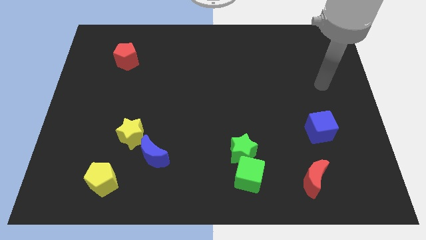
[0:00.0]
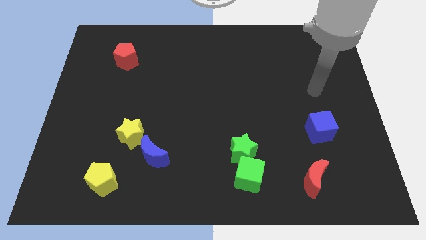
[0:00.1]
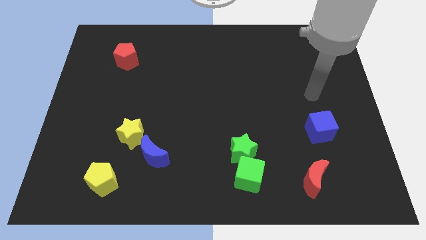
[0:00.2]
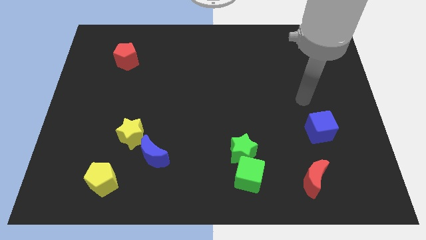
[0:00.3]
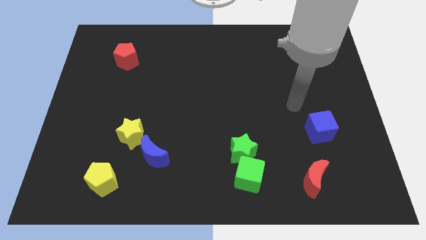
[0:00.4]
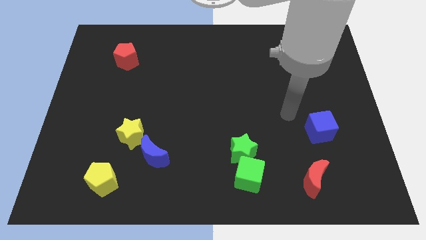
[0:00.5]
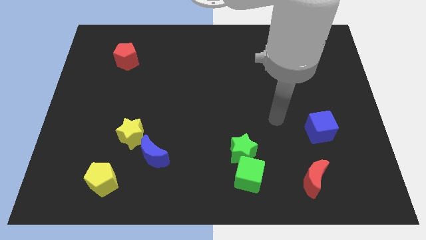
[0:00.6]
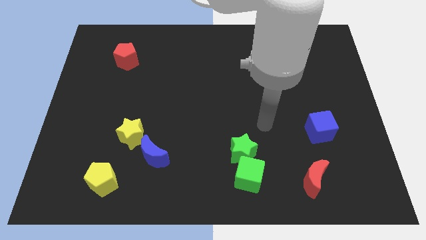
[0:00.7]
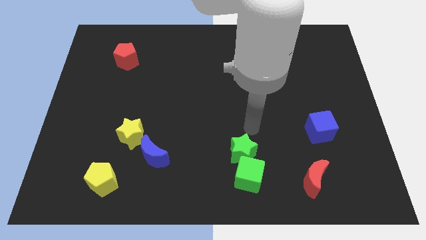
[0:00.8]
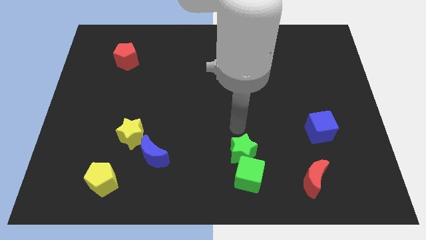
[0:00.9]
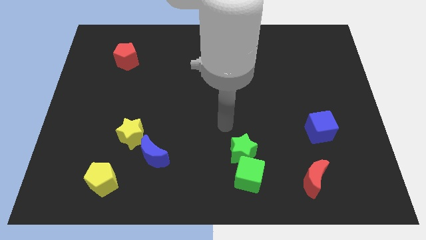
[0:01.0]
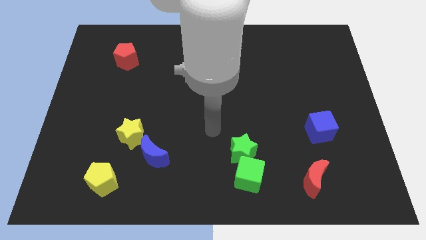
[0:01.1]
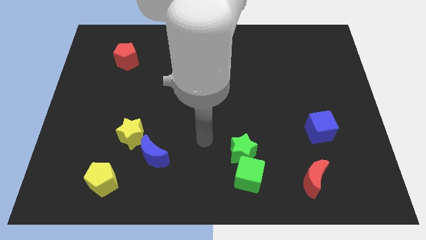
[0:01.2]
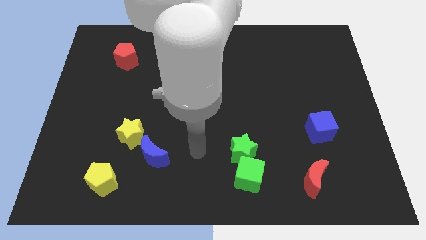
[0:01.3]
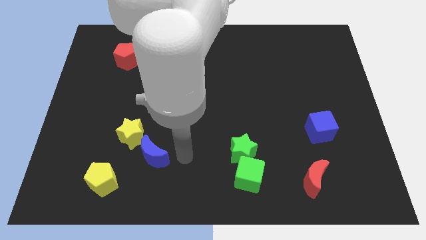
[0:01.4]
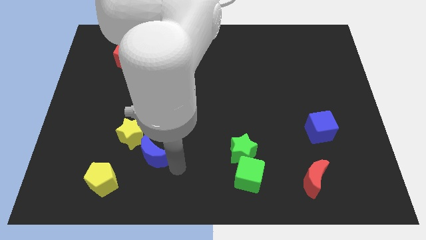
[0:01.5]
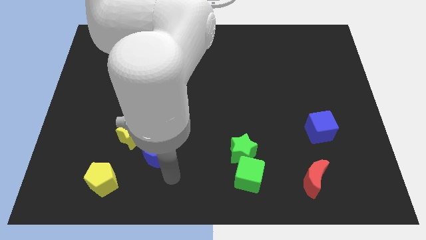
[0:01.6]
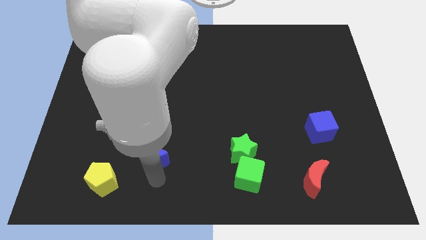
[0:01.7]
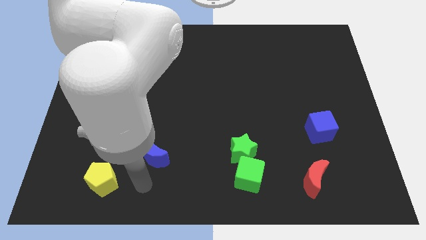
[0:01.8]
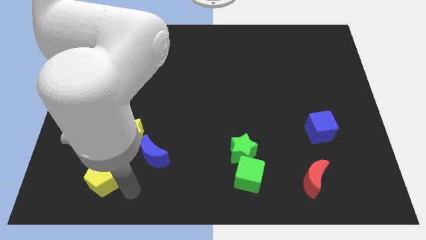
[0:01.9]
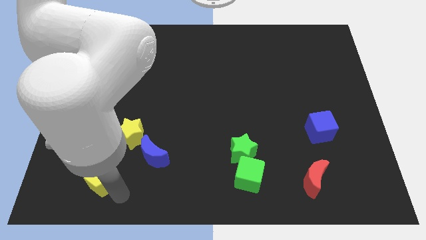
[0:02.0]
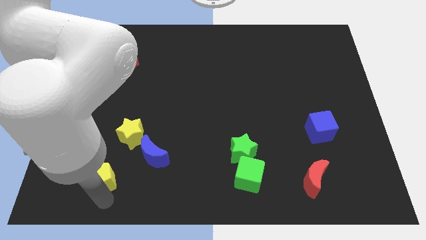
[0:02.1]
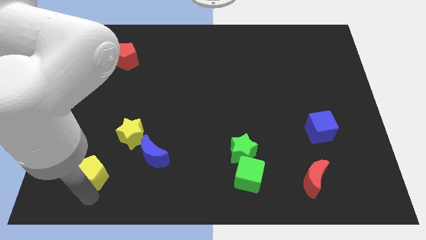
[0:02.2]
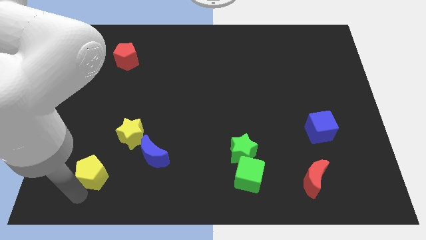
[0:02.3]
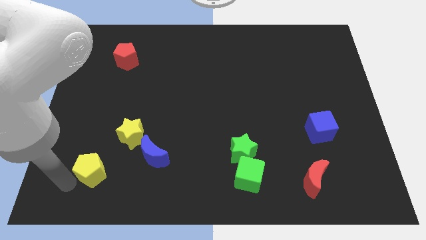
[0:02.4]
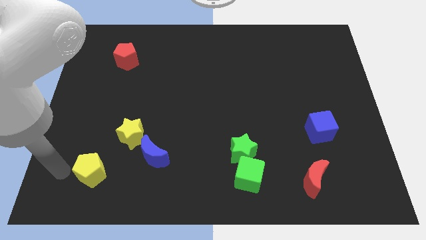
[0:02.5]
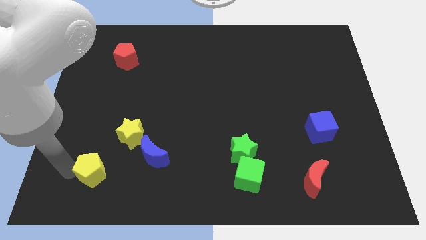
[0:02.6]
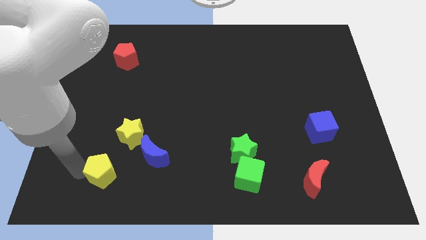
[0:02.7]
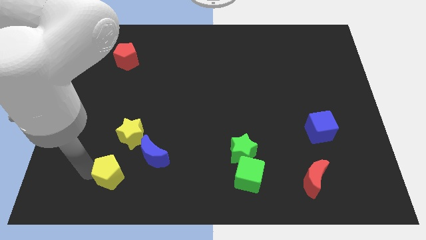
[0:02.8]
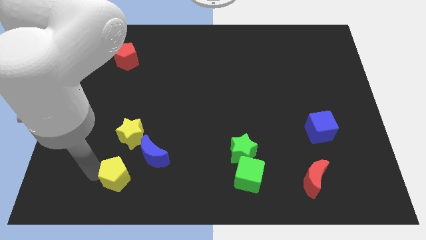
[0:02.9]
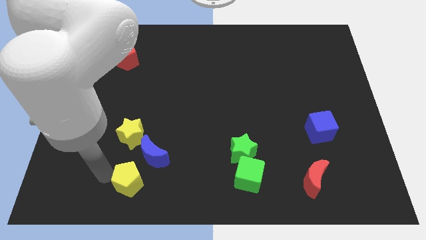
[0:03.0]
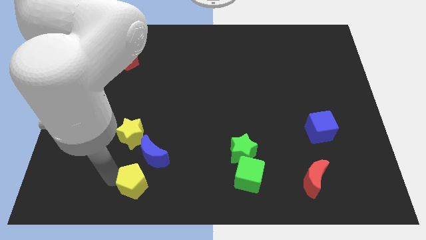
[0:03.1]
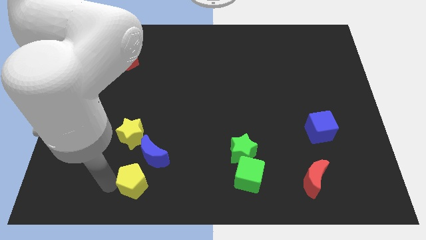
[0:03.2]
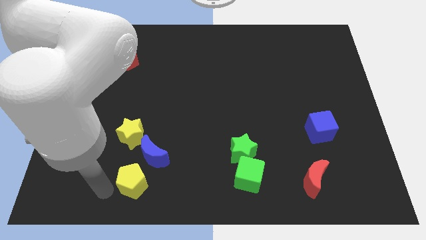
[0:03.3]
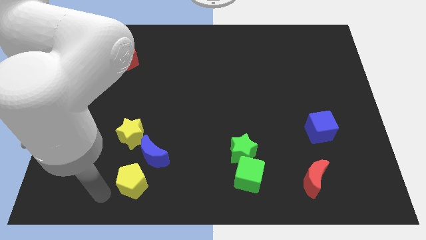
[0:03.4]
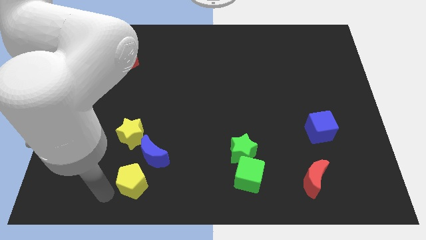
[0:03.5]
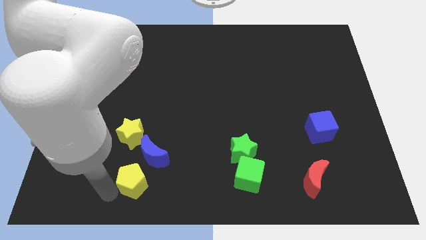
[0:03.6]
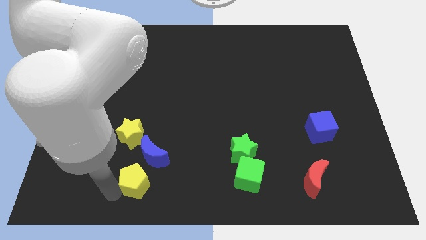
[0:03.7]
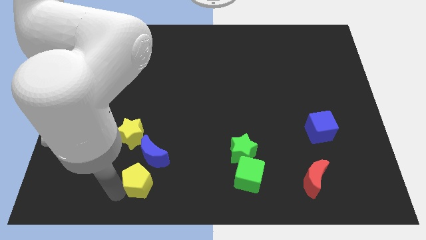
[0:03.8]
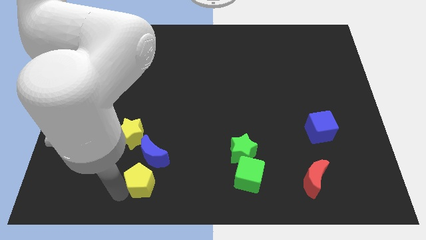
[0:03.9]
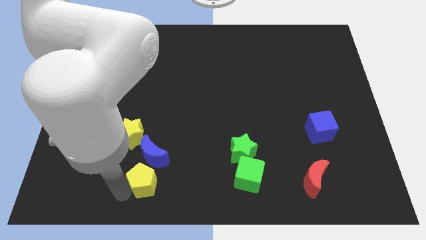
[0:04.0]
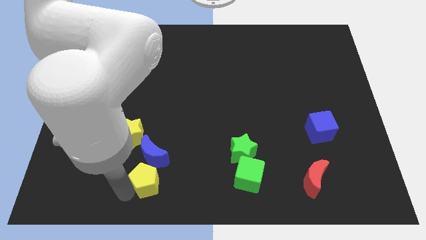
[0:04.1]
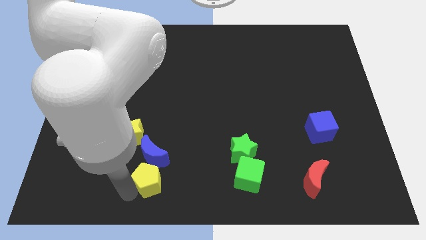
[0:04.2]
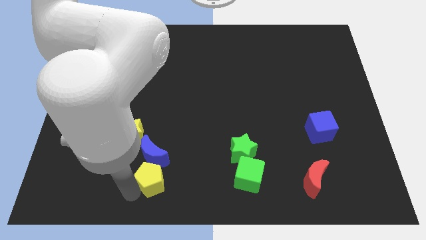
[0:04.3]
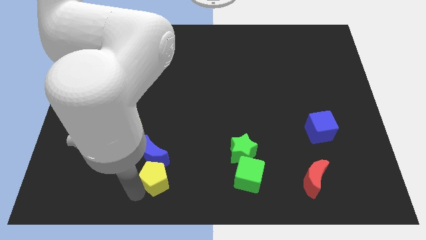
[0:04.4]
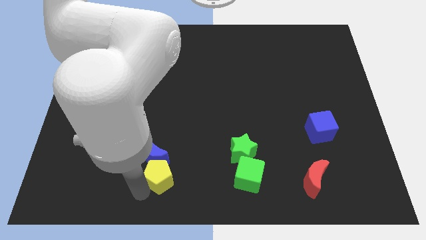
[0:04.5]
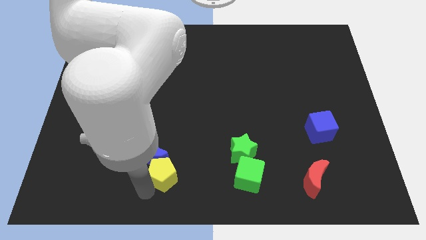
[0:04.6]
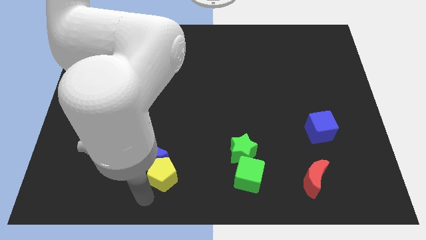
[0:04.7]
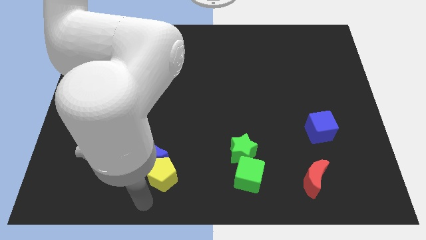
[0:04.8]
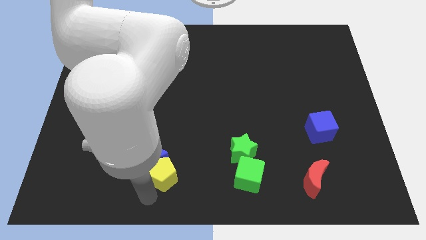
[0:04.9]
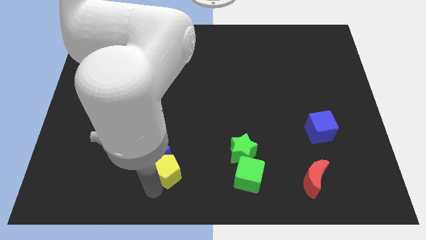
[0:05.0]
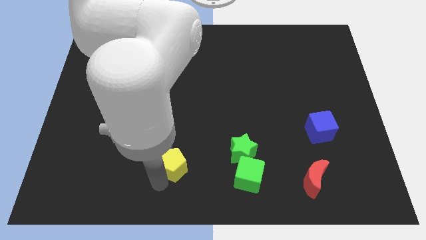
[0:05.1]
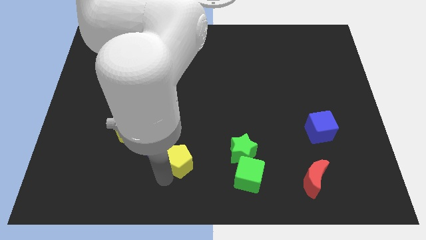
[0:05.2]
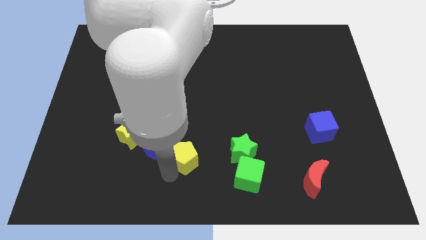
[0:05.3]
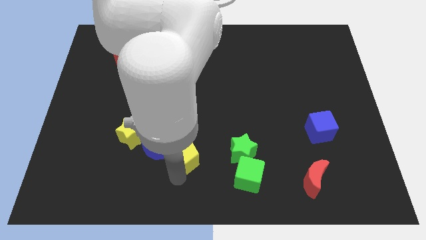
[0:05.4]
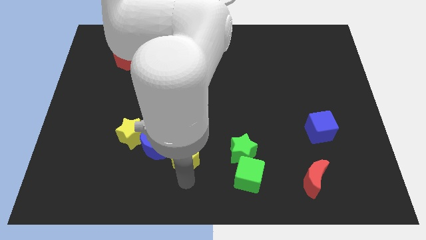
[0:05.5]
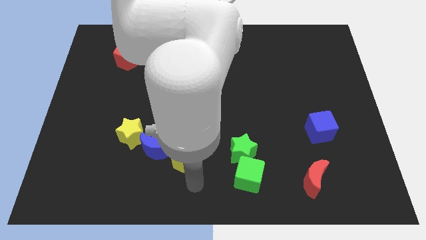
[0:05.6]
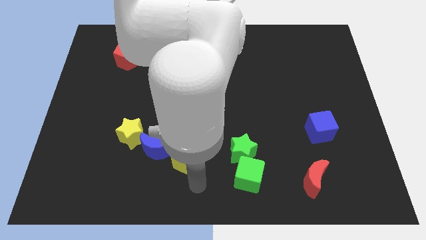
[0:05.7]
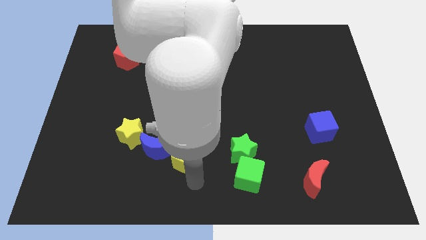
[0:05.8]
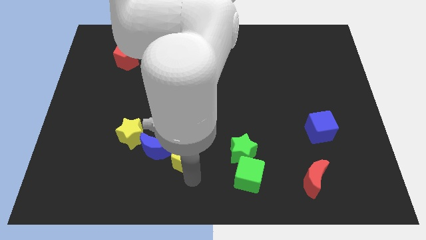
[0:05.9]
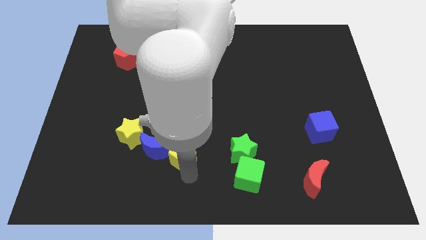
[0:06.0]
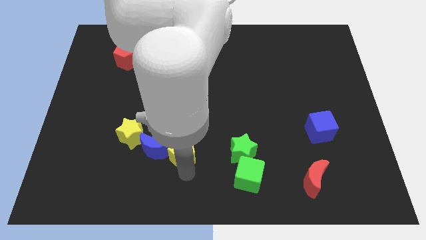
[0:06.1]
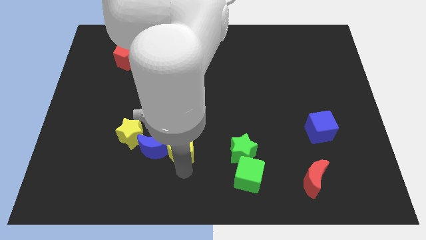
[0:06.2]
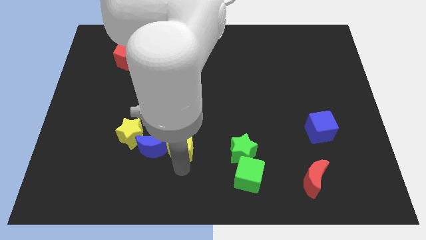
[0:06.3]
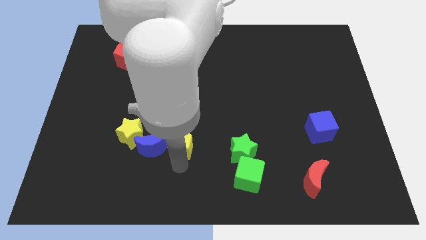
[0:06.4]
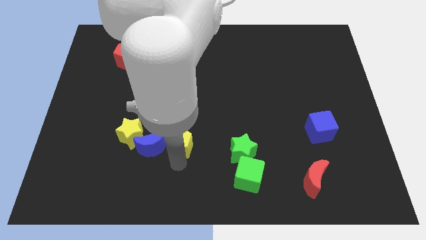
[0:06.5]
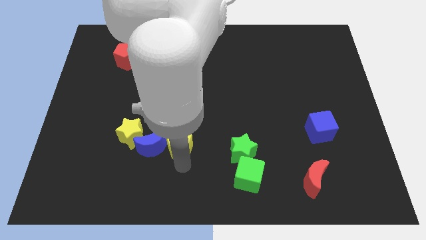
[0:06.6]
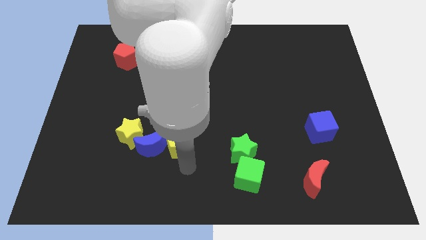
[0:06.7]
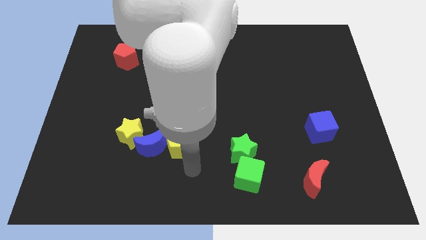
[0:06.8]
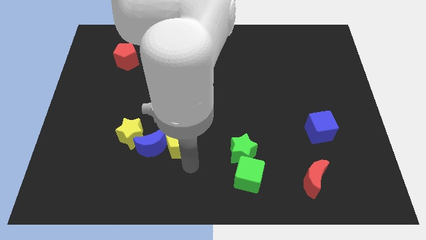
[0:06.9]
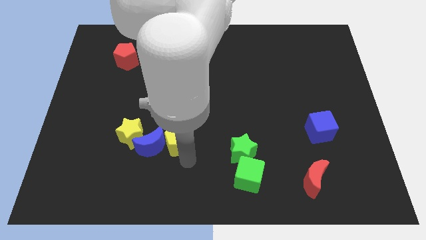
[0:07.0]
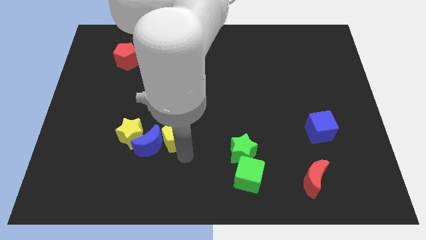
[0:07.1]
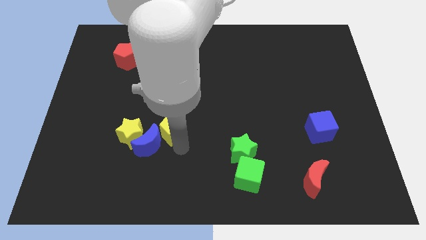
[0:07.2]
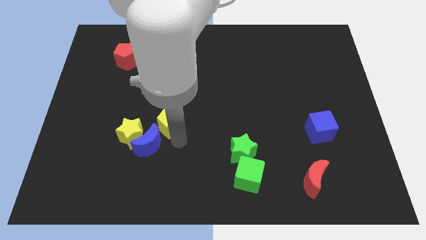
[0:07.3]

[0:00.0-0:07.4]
slide the yellow pentagon to the top right side of the yellow star

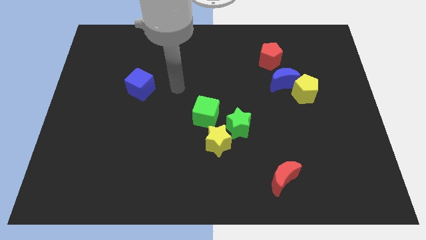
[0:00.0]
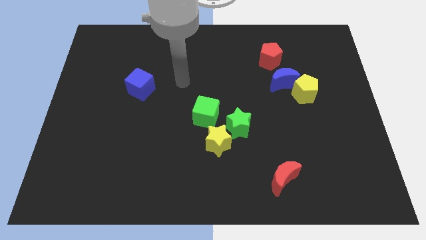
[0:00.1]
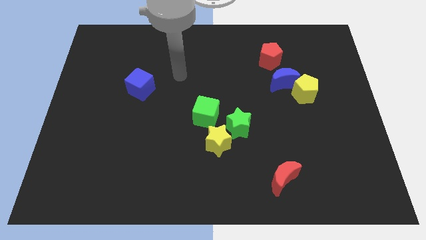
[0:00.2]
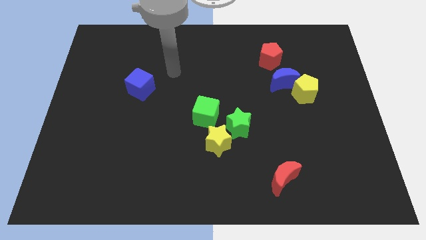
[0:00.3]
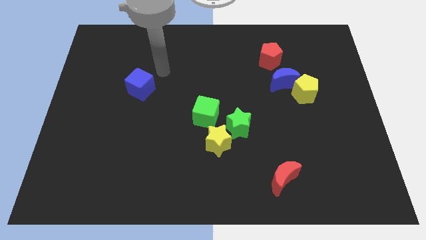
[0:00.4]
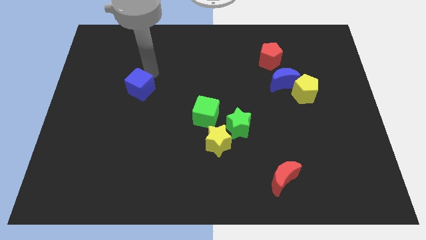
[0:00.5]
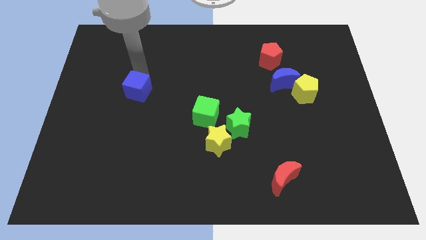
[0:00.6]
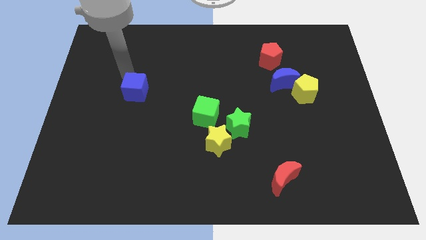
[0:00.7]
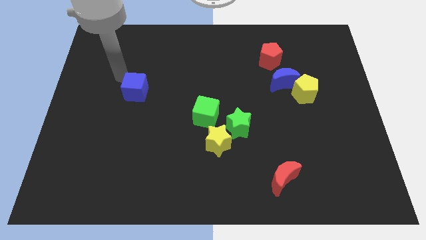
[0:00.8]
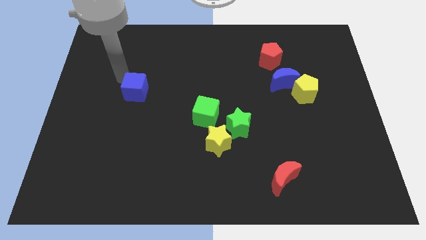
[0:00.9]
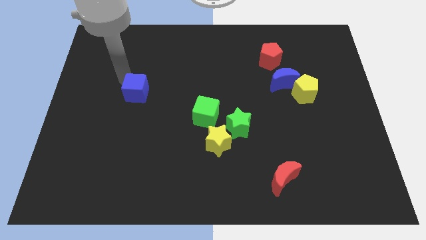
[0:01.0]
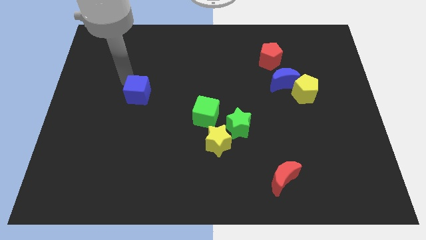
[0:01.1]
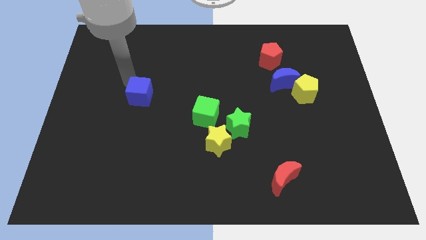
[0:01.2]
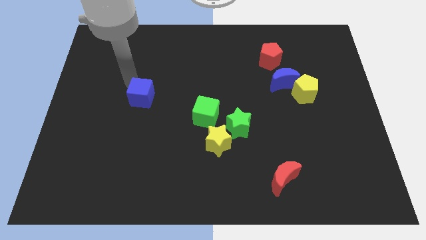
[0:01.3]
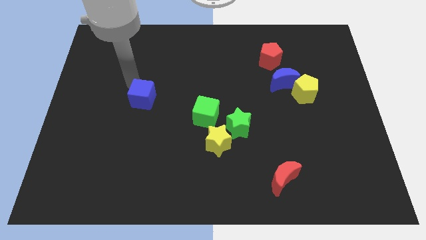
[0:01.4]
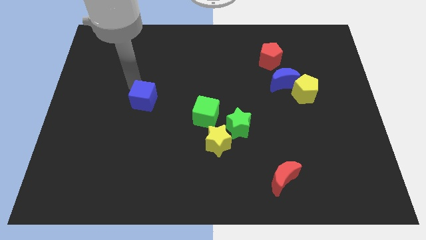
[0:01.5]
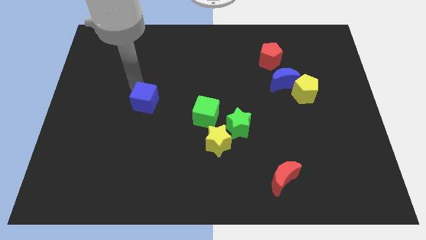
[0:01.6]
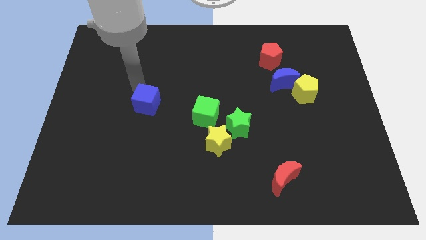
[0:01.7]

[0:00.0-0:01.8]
put the blue cube just left of the green cube
